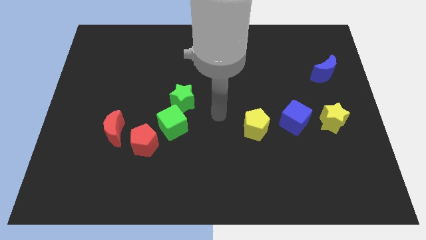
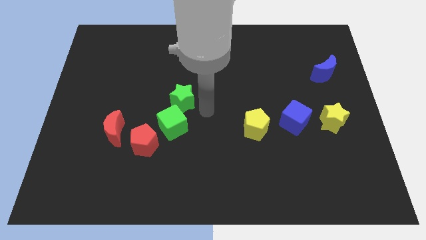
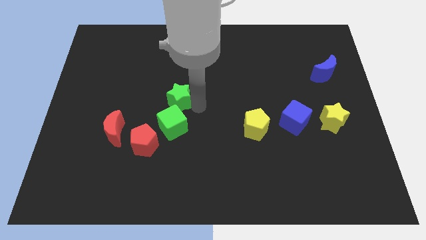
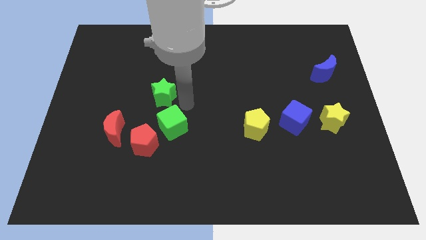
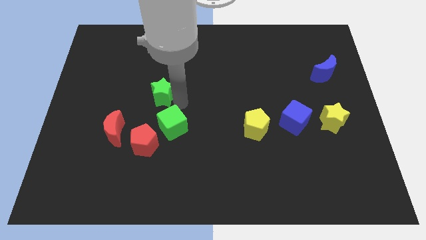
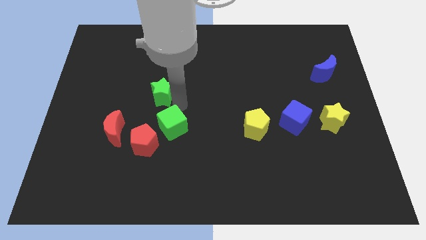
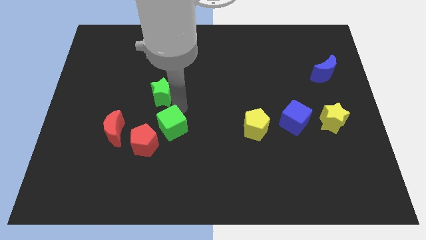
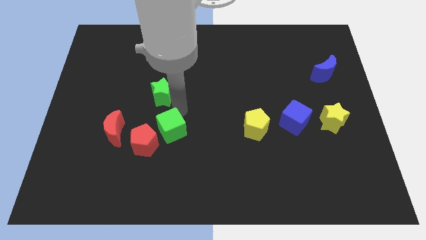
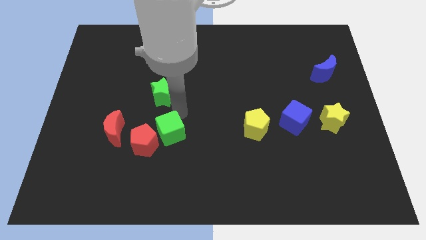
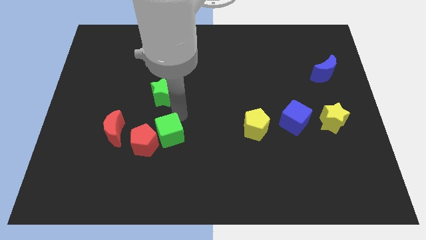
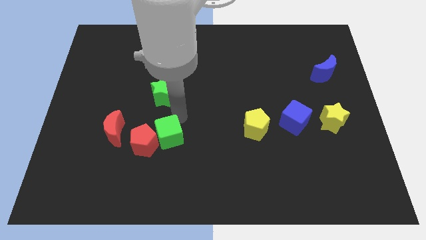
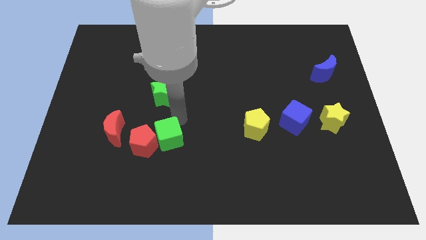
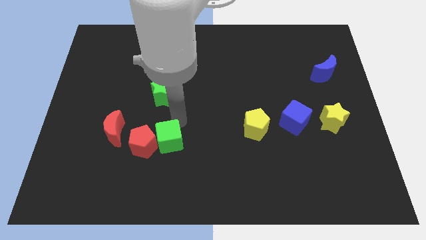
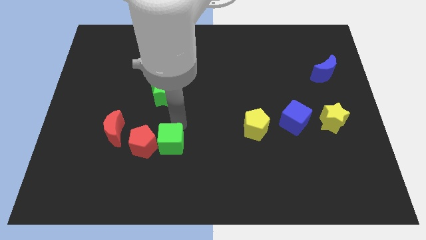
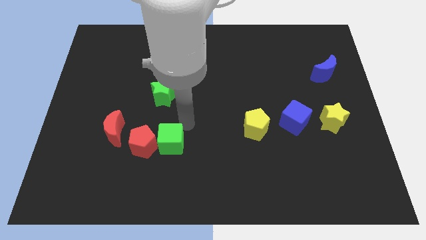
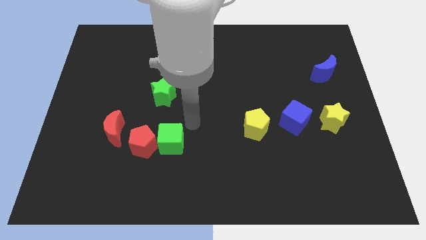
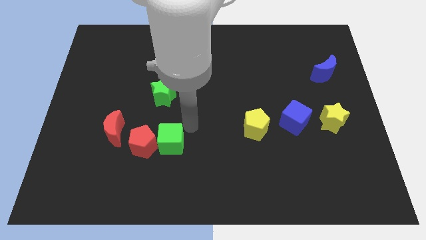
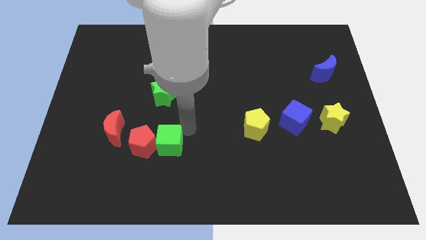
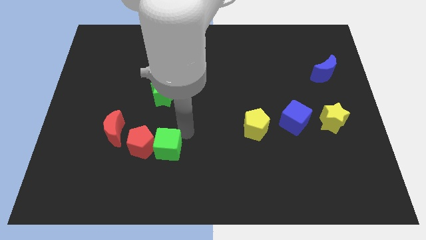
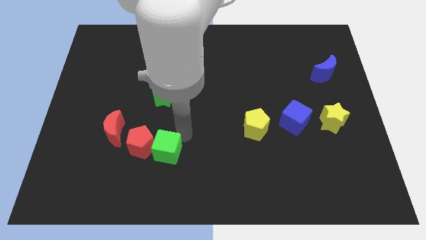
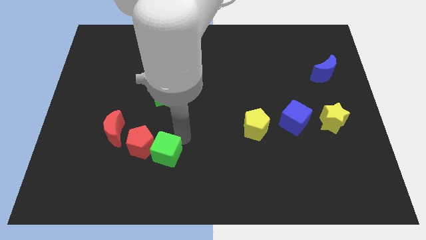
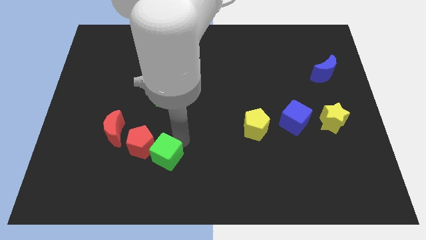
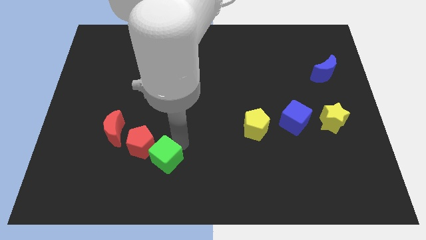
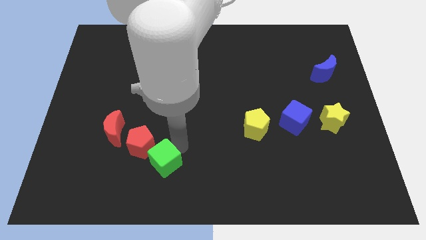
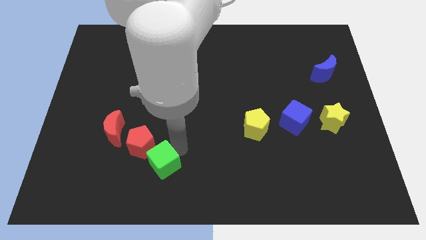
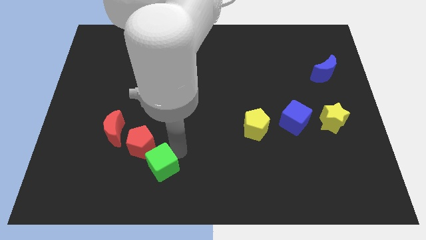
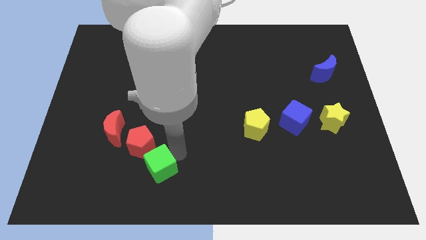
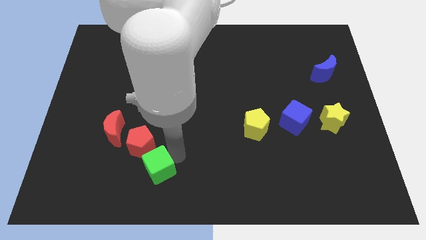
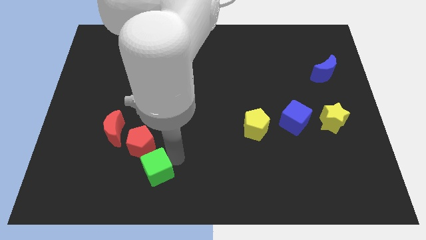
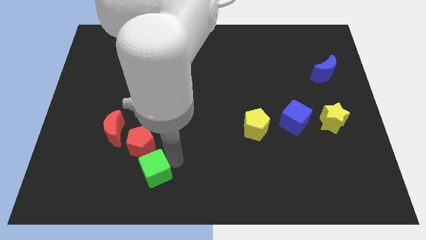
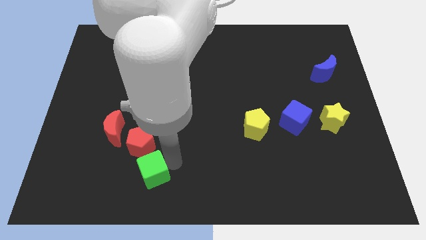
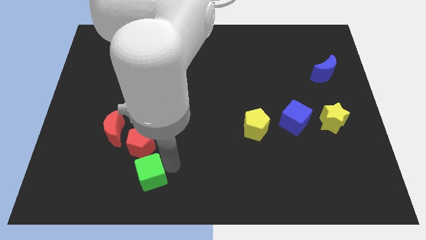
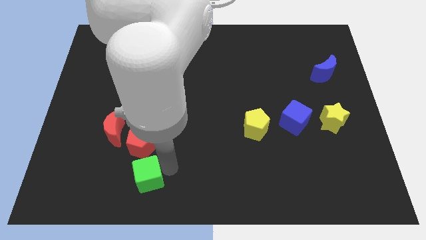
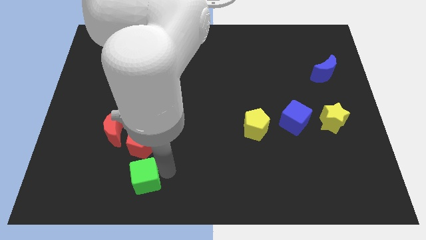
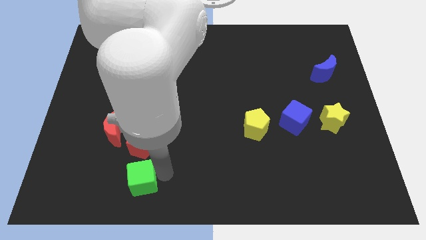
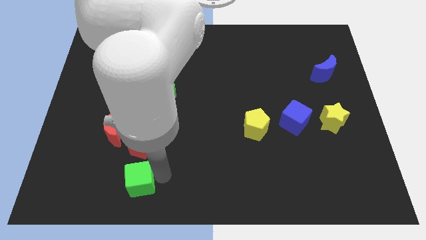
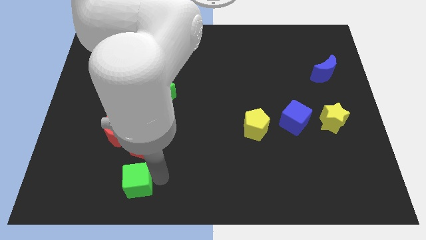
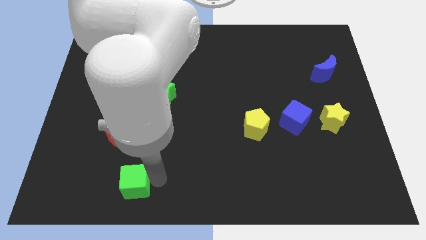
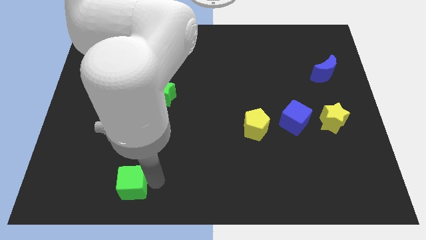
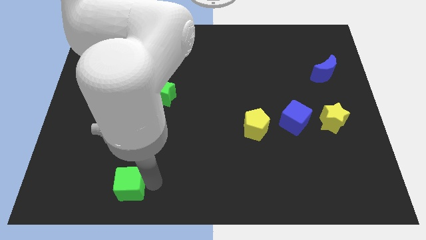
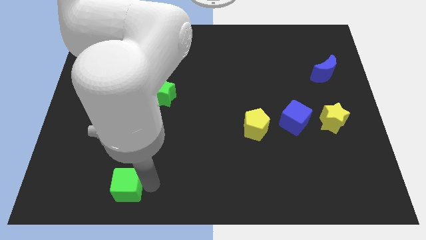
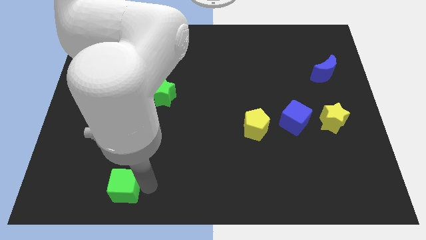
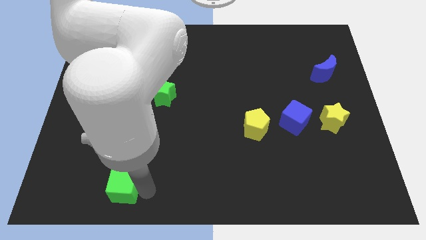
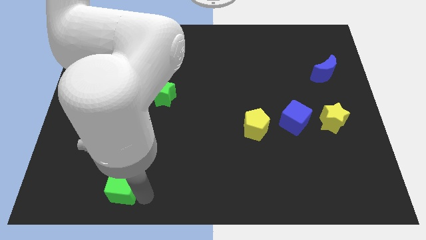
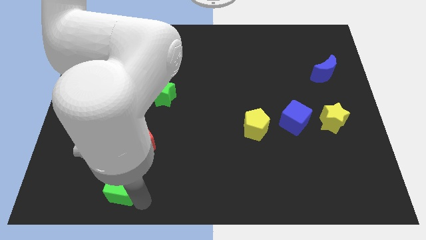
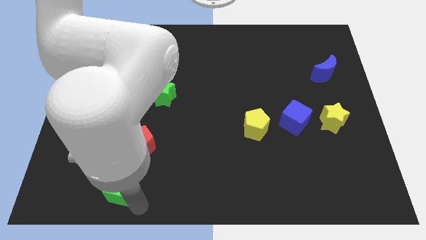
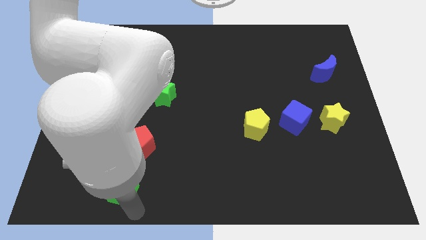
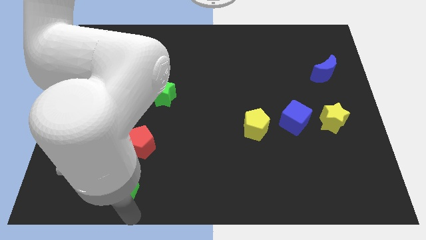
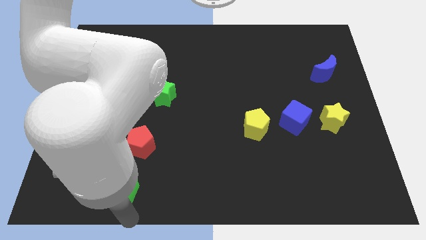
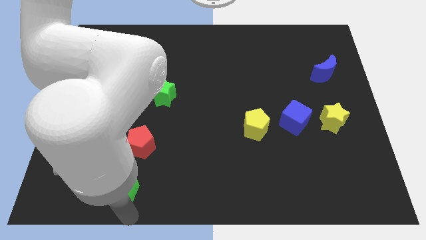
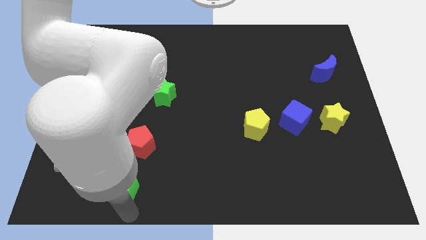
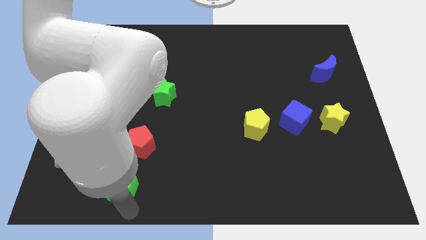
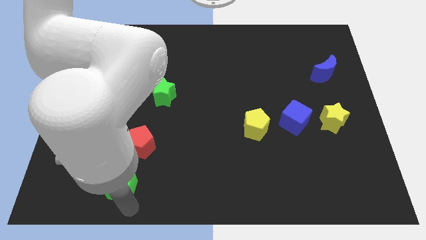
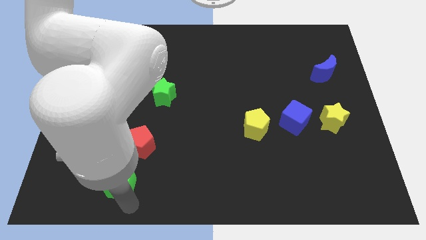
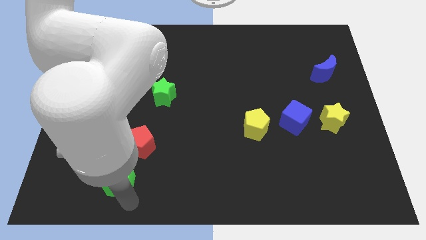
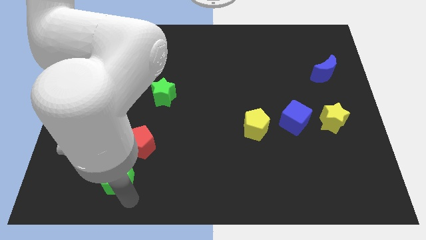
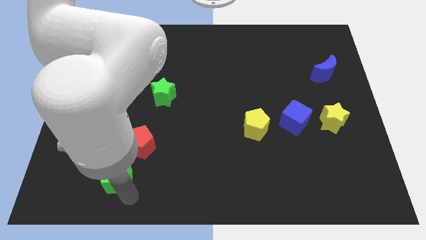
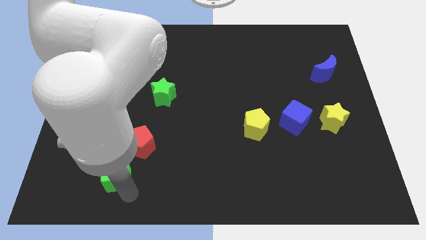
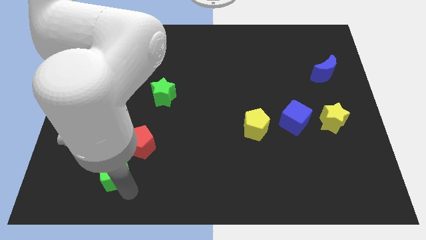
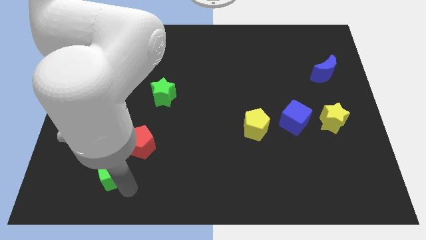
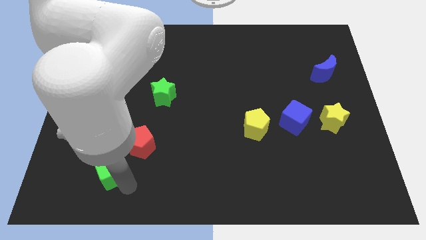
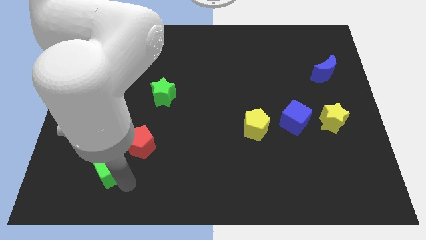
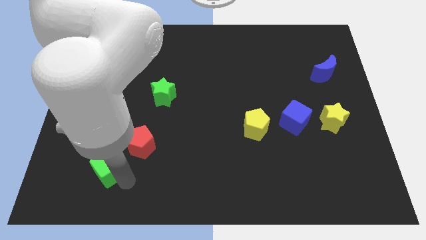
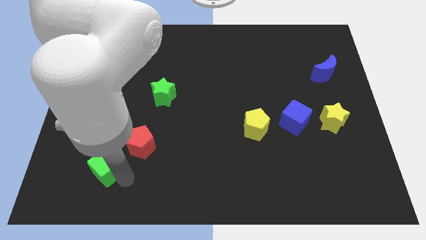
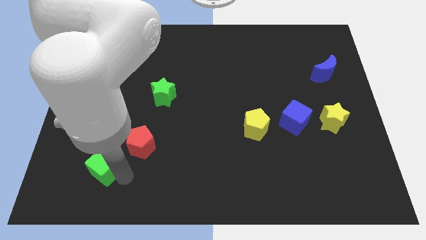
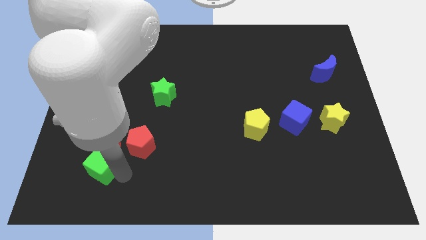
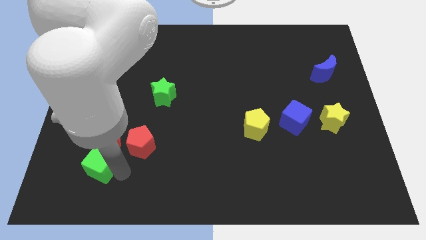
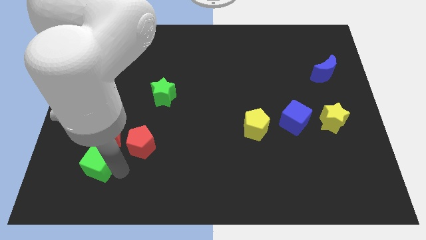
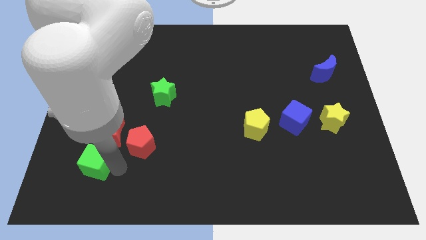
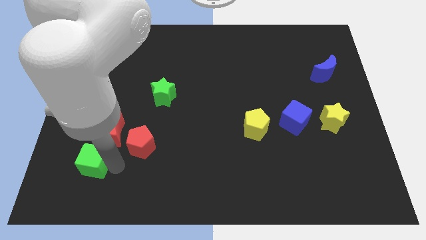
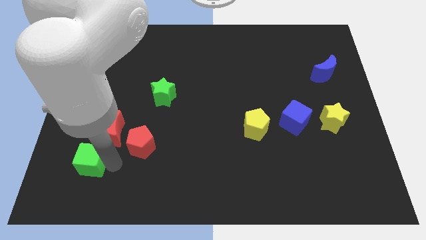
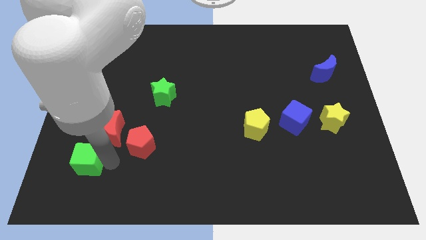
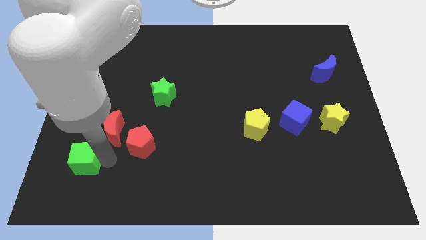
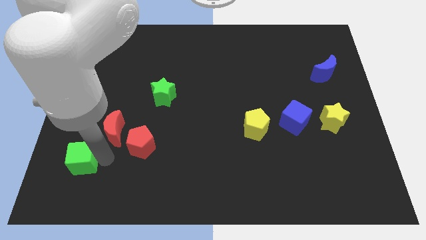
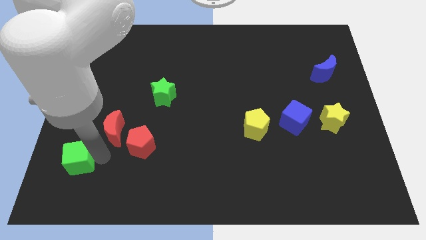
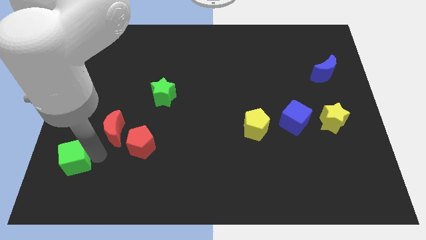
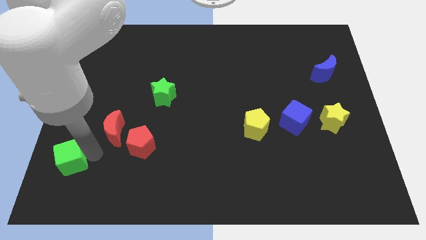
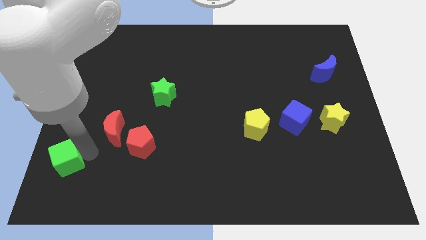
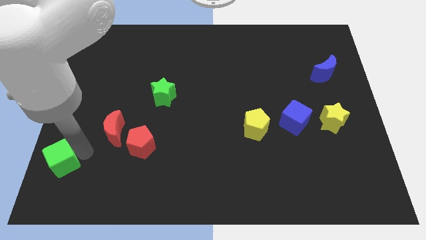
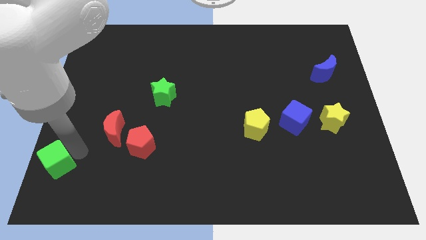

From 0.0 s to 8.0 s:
put the green cube to the lower left corner
